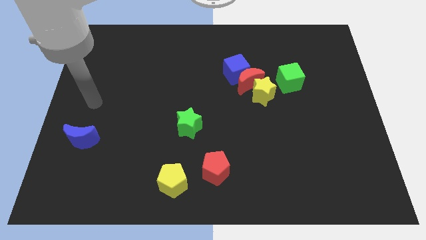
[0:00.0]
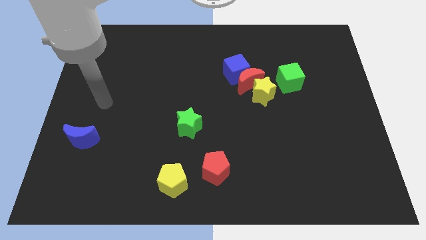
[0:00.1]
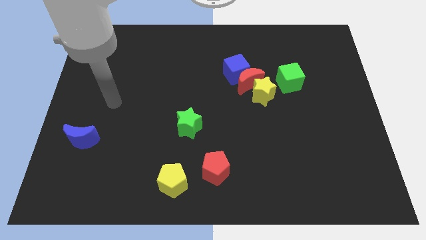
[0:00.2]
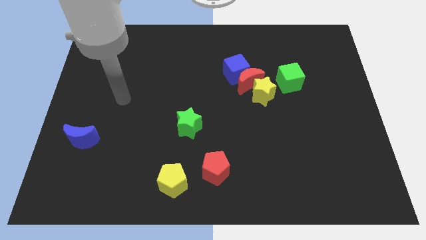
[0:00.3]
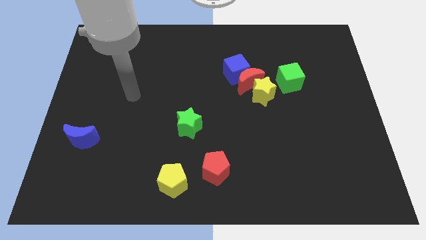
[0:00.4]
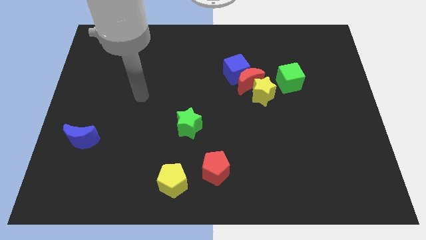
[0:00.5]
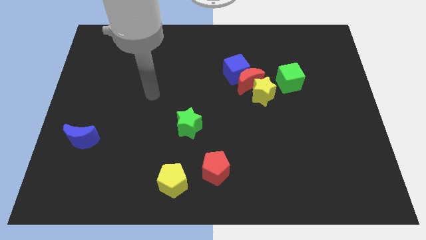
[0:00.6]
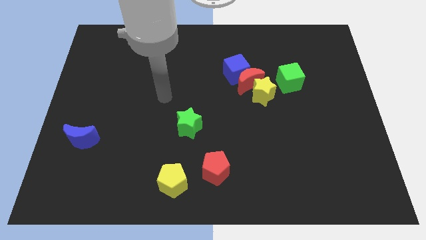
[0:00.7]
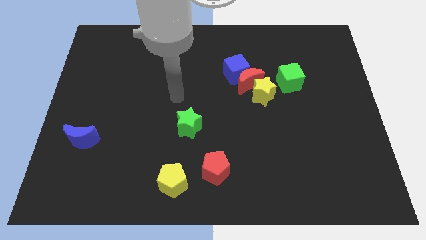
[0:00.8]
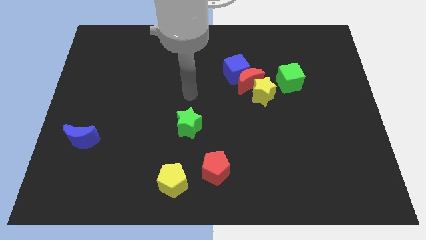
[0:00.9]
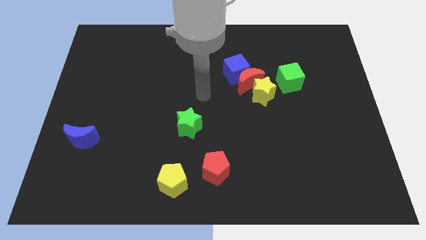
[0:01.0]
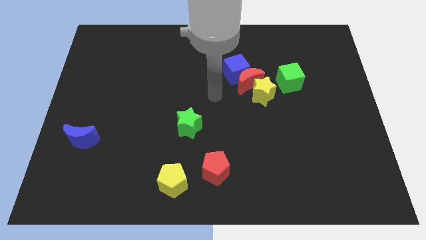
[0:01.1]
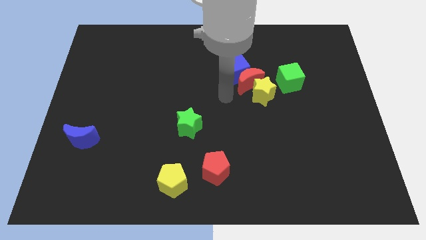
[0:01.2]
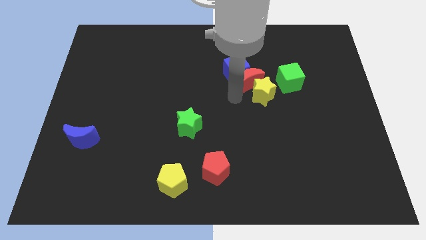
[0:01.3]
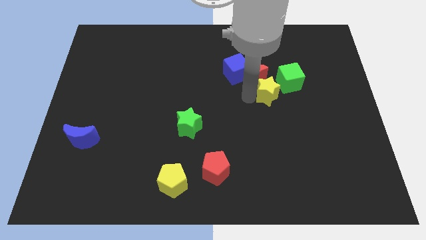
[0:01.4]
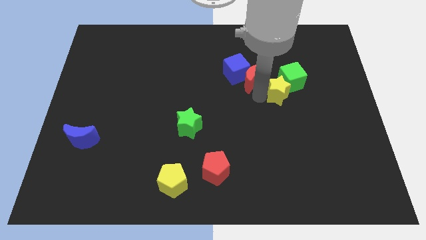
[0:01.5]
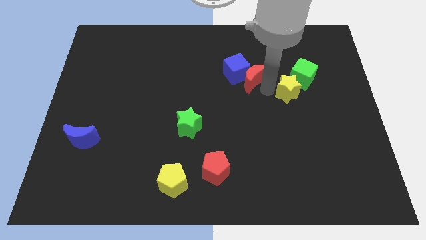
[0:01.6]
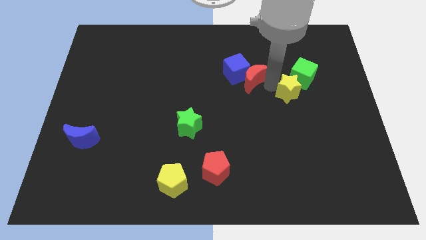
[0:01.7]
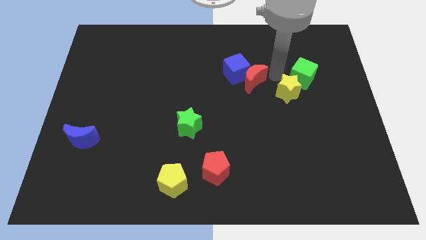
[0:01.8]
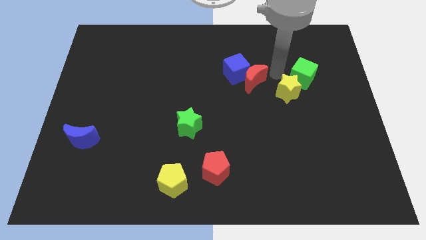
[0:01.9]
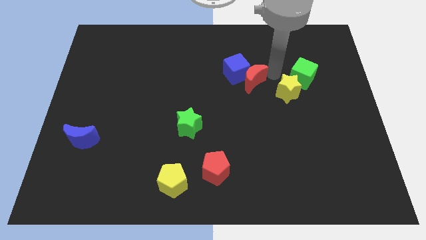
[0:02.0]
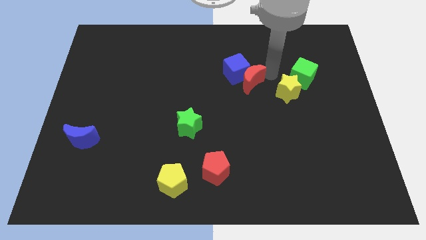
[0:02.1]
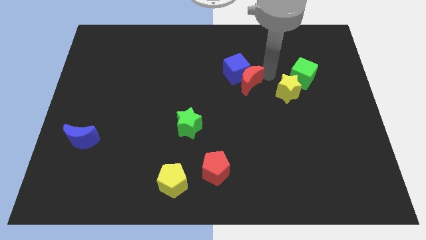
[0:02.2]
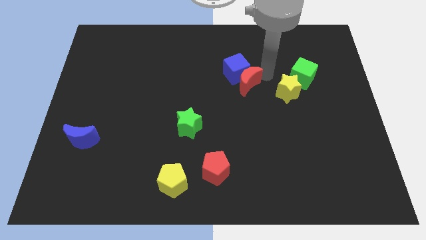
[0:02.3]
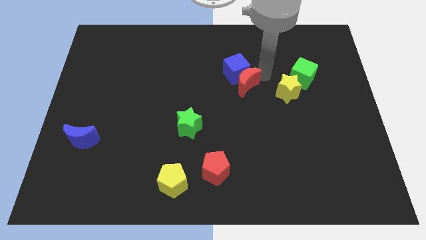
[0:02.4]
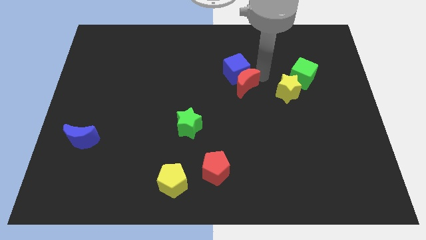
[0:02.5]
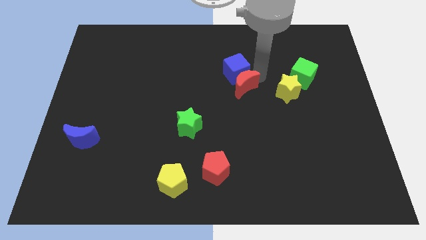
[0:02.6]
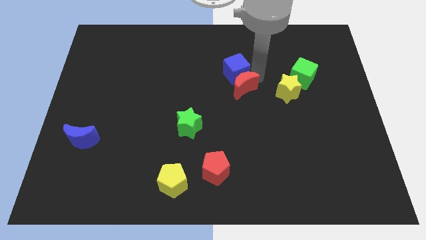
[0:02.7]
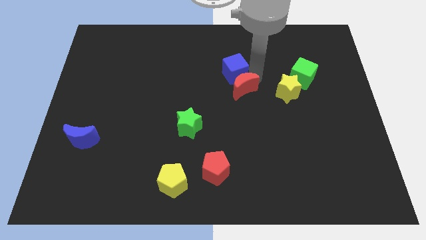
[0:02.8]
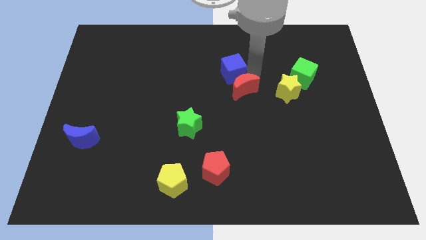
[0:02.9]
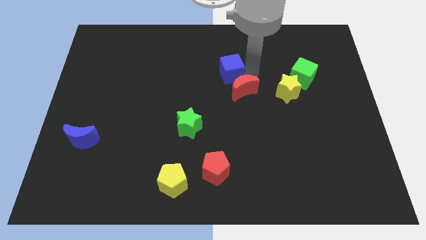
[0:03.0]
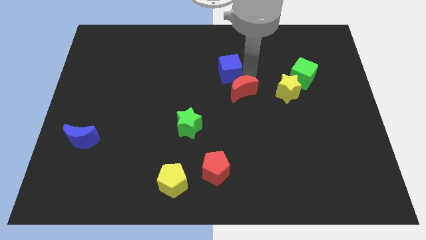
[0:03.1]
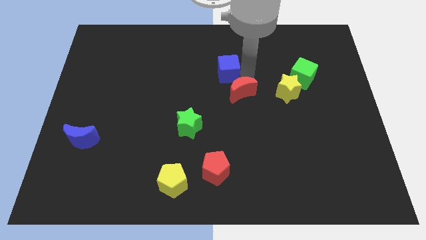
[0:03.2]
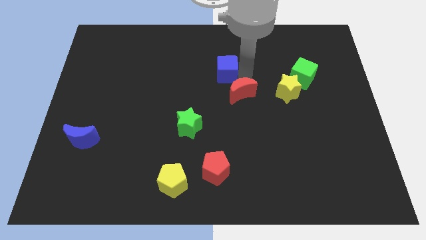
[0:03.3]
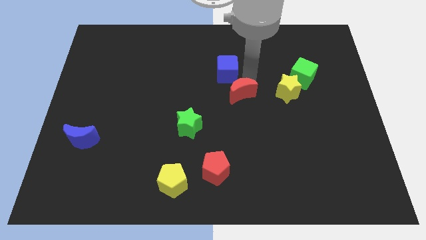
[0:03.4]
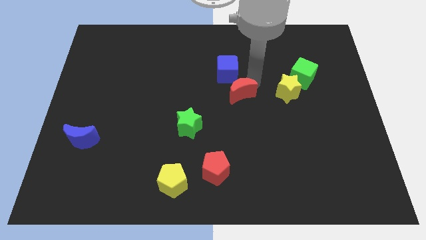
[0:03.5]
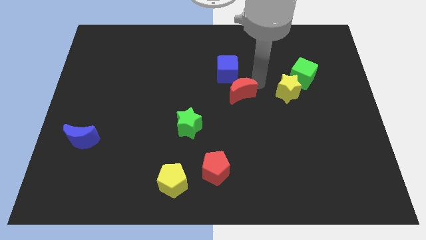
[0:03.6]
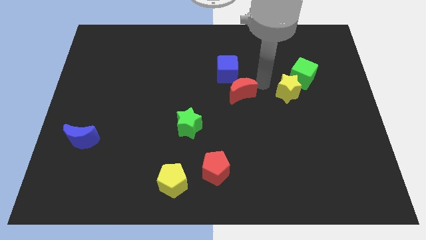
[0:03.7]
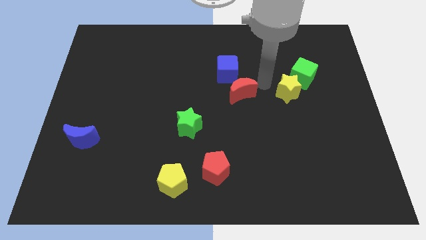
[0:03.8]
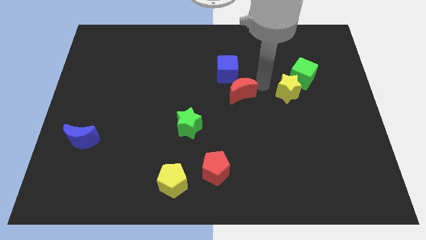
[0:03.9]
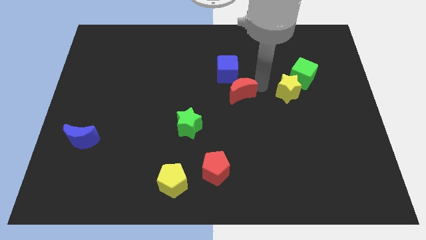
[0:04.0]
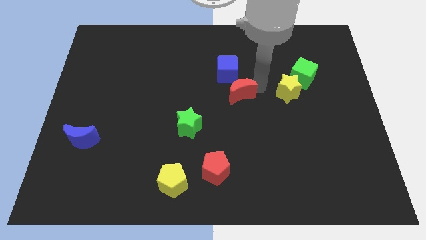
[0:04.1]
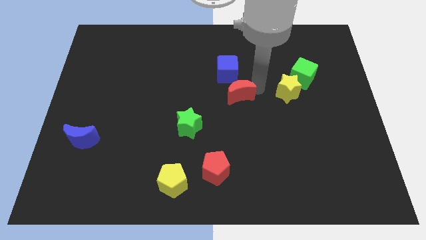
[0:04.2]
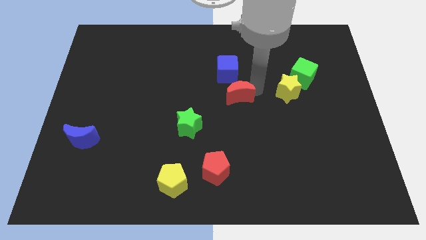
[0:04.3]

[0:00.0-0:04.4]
pull the red moon apart from the group

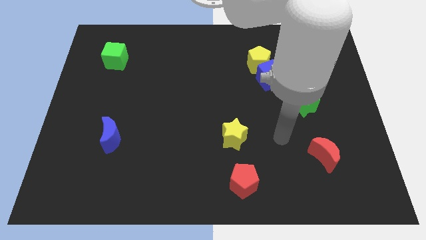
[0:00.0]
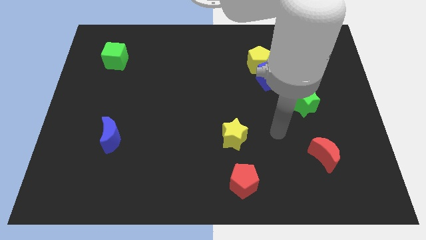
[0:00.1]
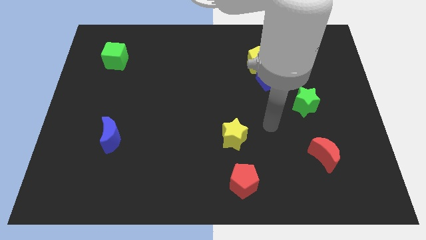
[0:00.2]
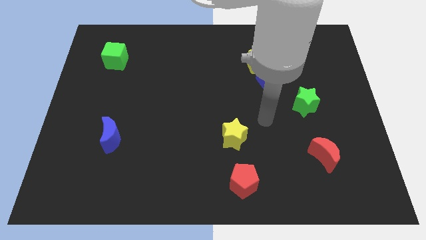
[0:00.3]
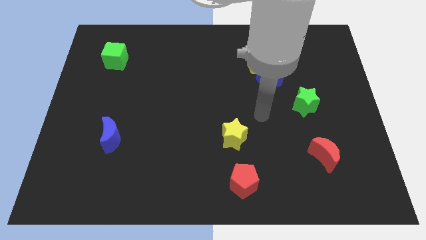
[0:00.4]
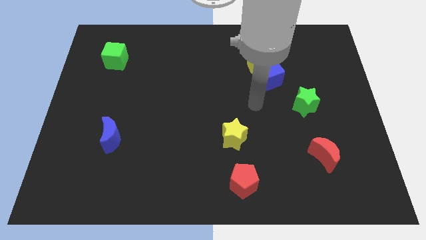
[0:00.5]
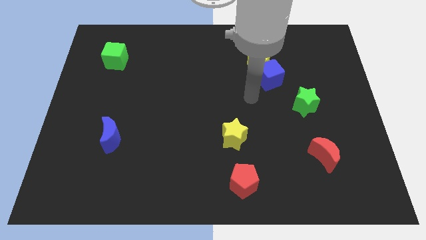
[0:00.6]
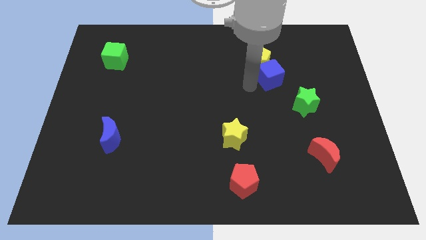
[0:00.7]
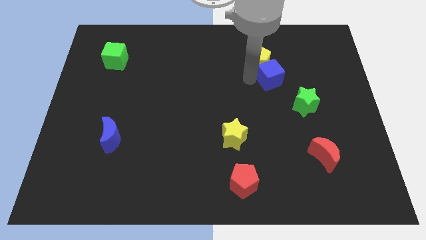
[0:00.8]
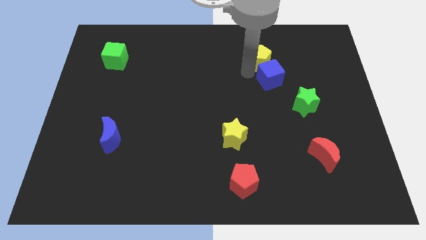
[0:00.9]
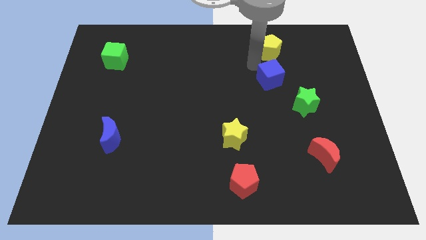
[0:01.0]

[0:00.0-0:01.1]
move the blue cube away from the yellow pentagon

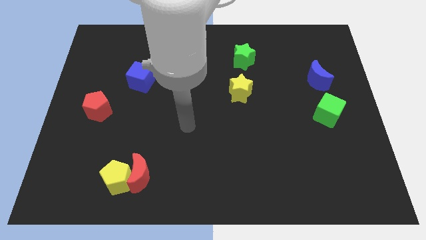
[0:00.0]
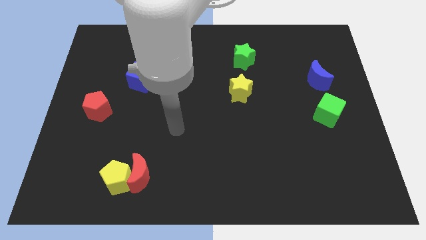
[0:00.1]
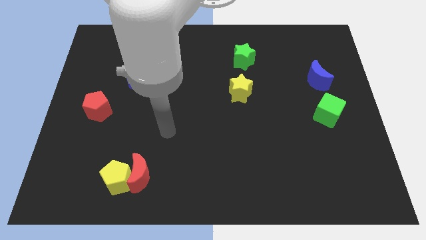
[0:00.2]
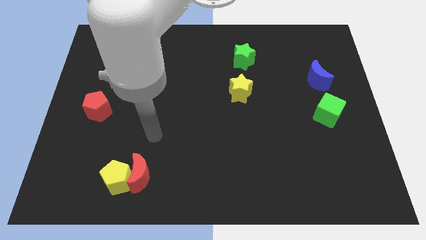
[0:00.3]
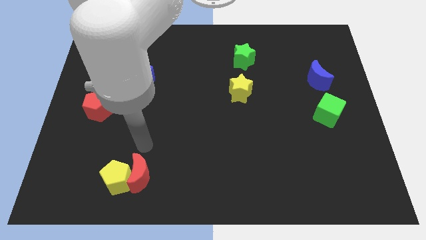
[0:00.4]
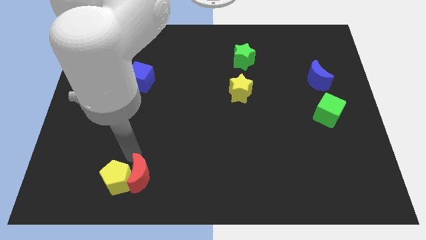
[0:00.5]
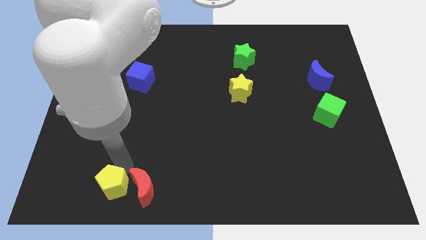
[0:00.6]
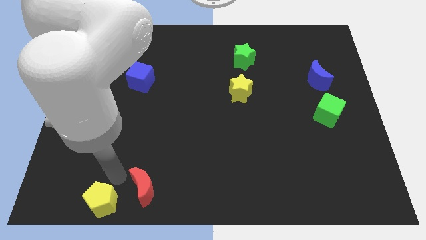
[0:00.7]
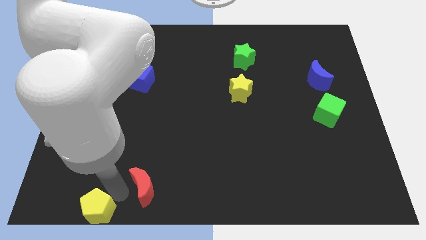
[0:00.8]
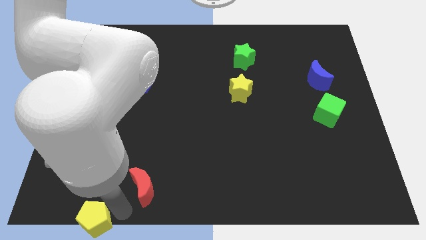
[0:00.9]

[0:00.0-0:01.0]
separate the red moon from the yellow pentagon

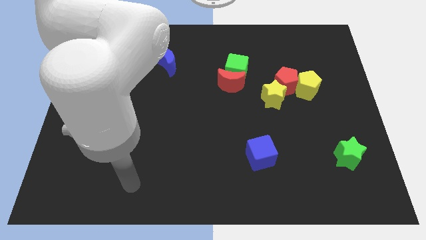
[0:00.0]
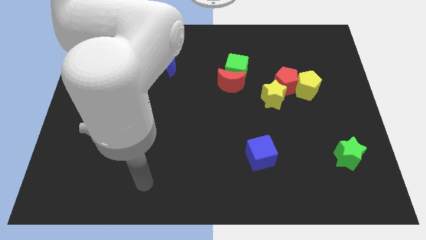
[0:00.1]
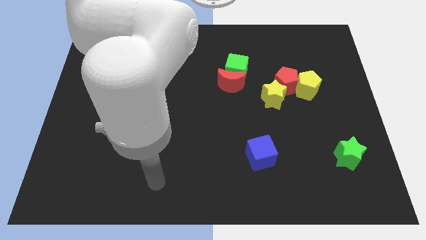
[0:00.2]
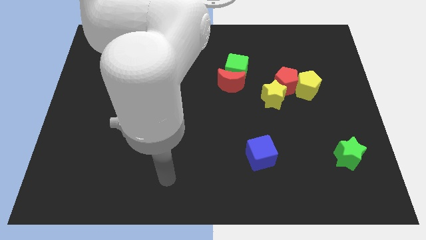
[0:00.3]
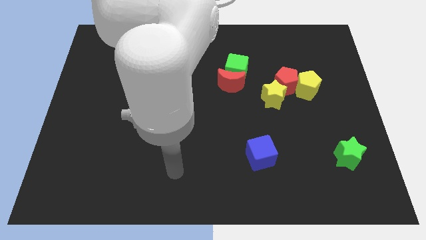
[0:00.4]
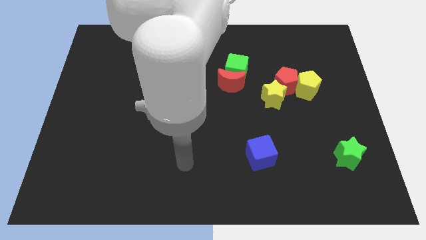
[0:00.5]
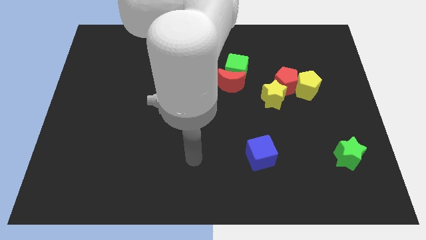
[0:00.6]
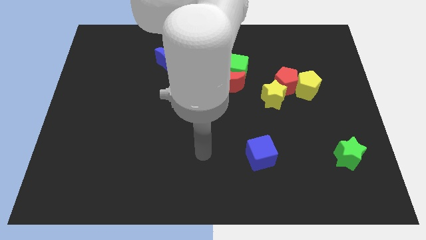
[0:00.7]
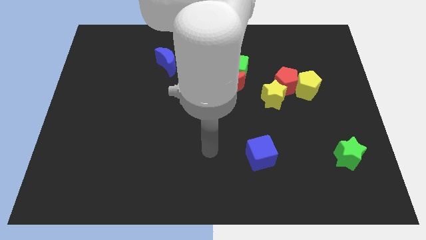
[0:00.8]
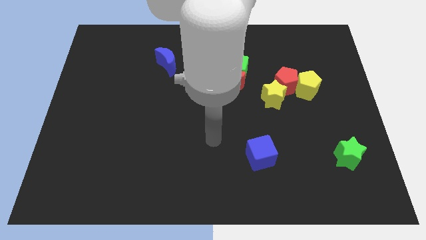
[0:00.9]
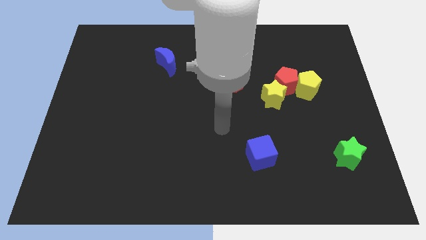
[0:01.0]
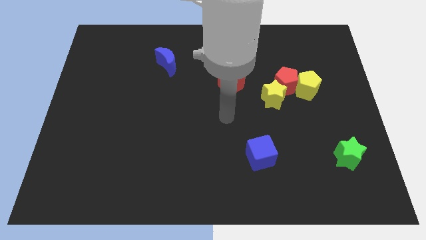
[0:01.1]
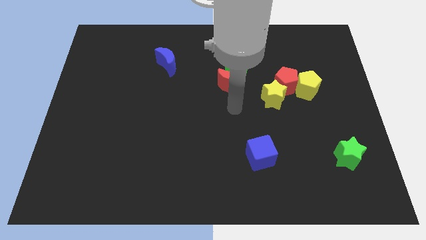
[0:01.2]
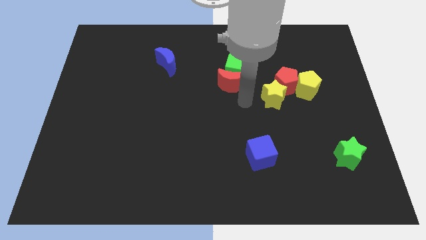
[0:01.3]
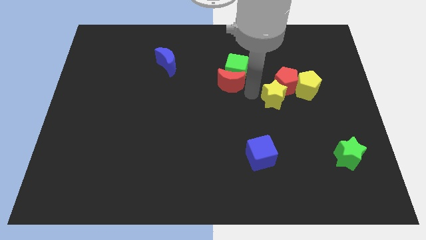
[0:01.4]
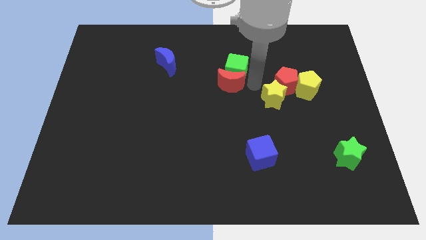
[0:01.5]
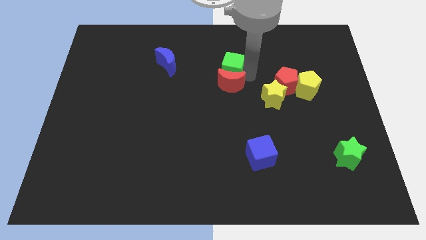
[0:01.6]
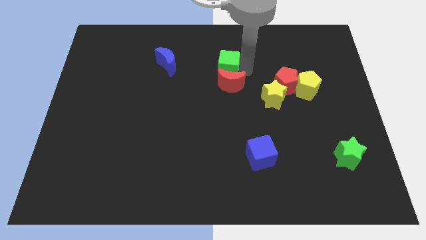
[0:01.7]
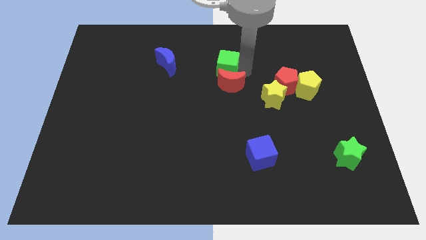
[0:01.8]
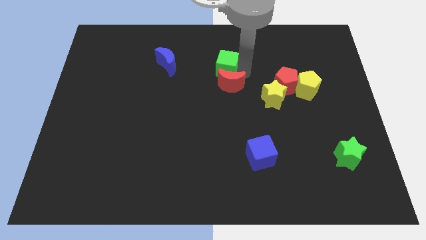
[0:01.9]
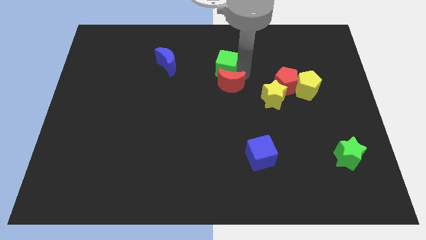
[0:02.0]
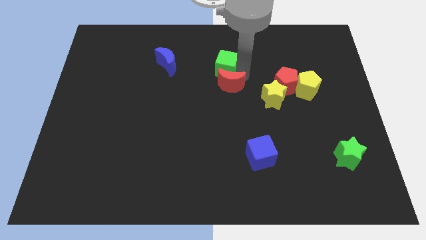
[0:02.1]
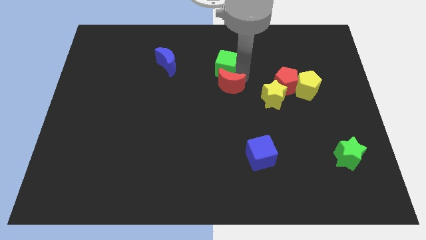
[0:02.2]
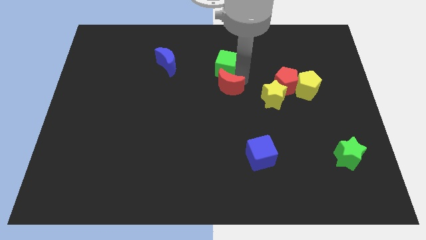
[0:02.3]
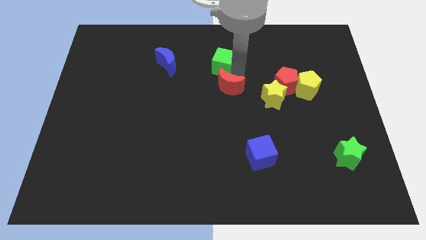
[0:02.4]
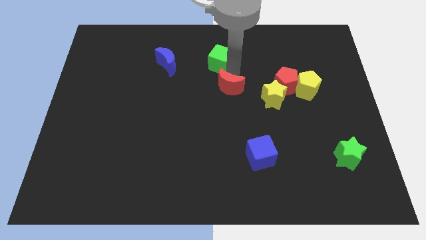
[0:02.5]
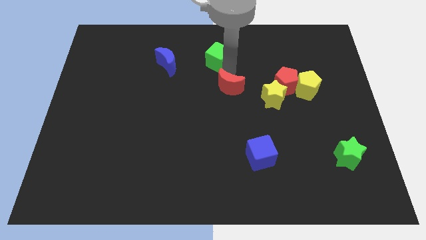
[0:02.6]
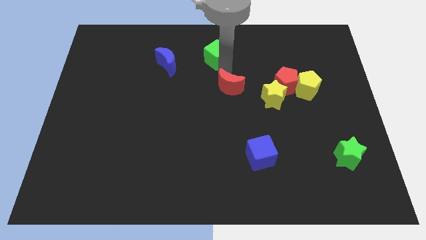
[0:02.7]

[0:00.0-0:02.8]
separate the red moon from the green cube

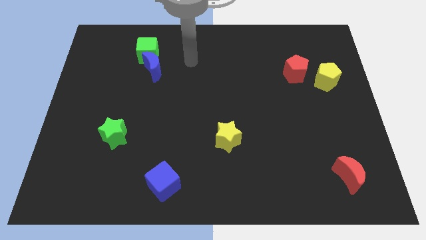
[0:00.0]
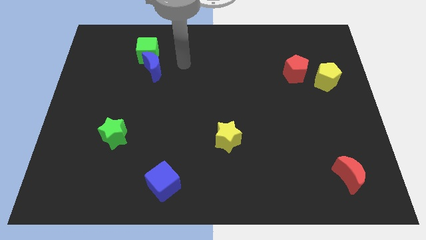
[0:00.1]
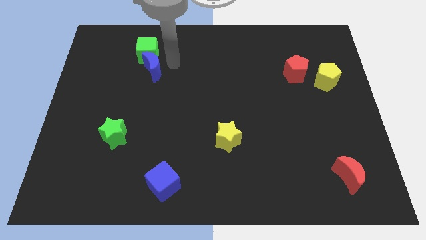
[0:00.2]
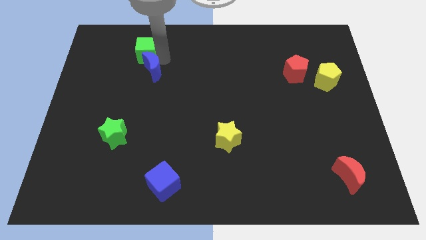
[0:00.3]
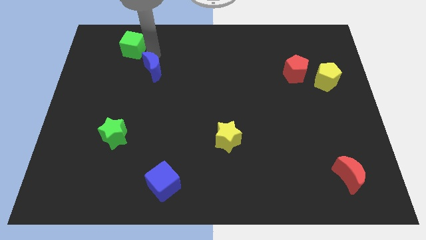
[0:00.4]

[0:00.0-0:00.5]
separate the blue moon from the green cube
